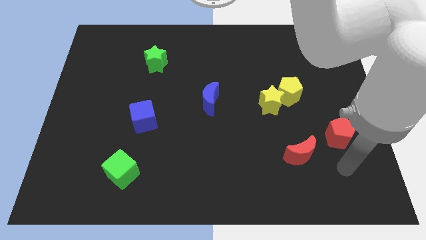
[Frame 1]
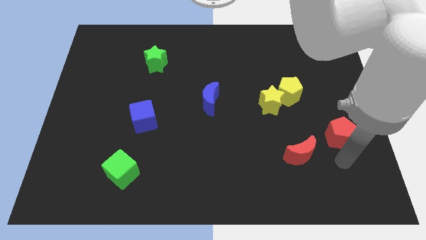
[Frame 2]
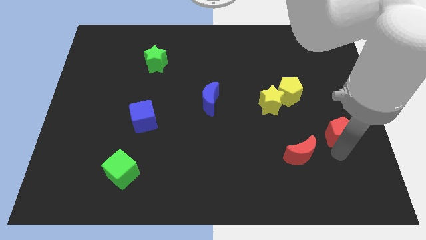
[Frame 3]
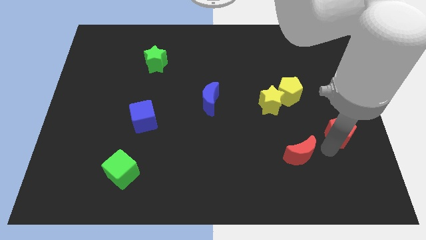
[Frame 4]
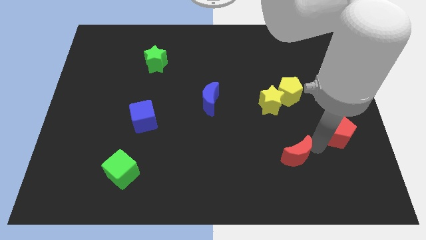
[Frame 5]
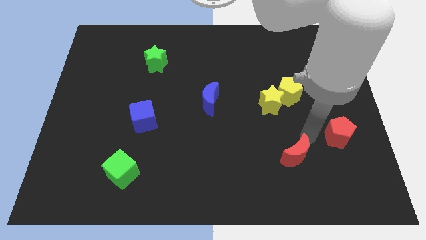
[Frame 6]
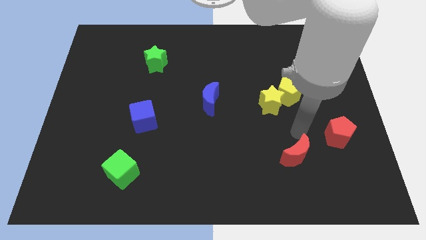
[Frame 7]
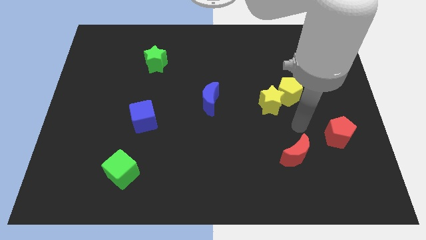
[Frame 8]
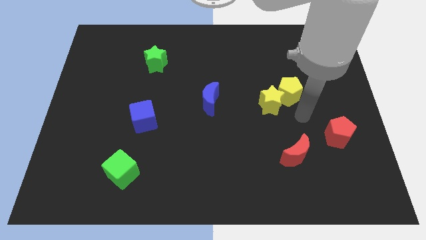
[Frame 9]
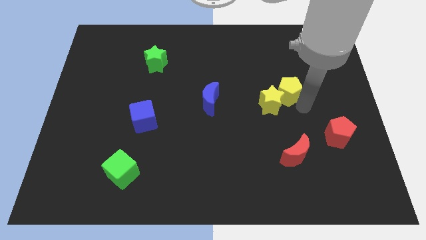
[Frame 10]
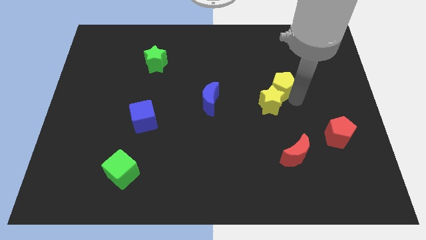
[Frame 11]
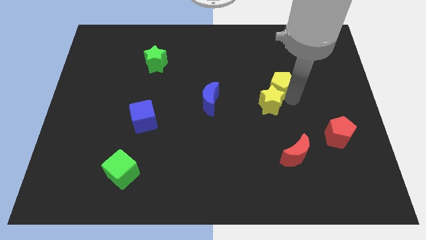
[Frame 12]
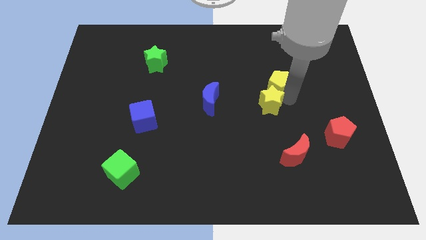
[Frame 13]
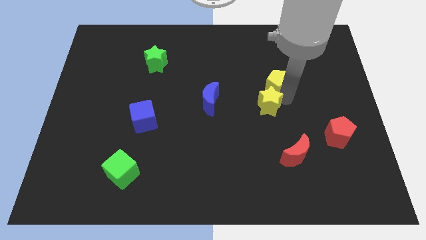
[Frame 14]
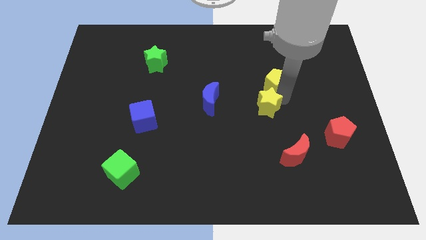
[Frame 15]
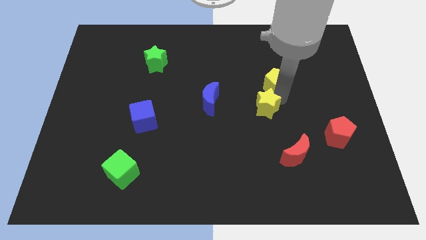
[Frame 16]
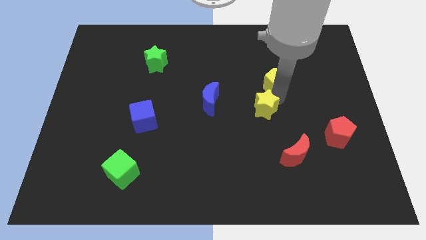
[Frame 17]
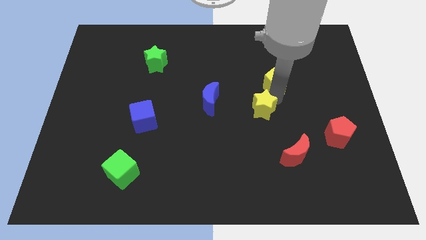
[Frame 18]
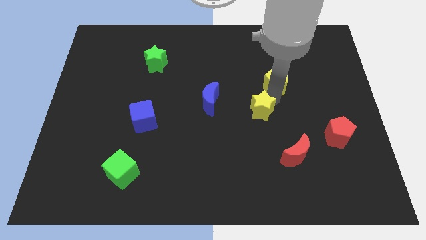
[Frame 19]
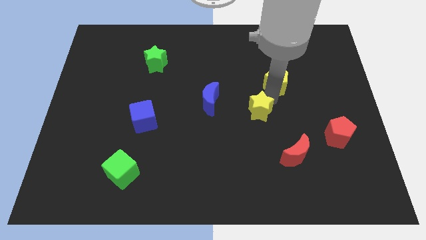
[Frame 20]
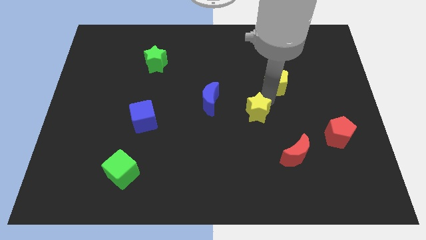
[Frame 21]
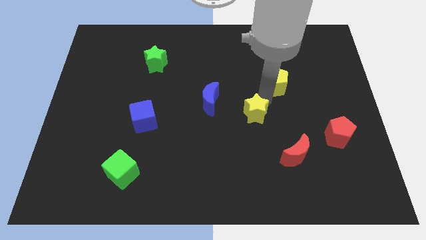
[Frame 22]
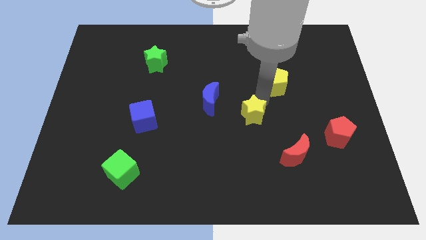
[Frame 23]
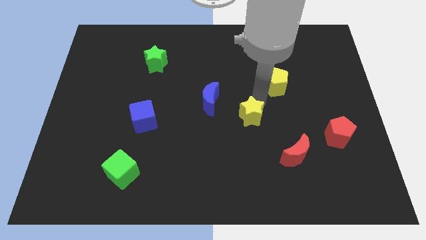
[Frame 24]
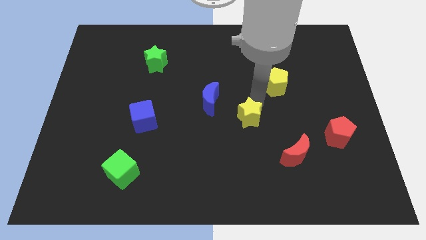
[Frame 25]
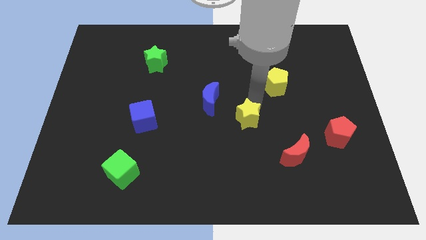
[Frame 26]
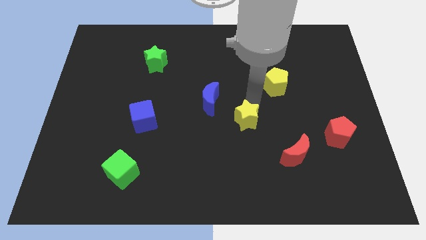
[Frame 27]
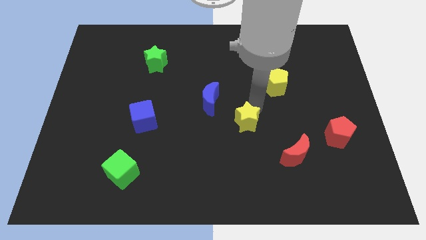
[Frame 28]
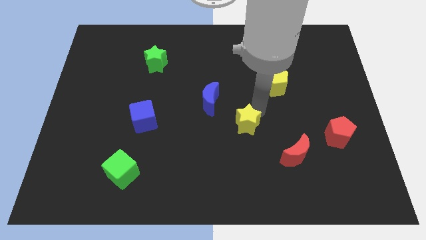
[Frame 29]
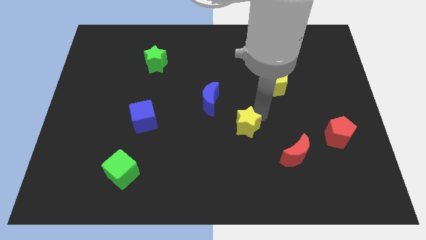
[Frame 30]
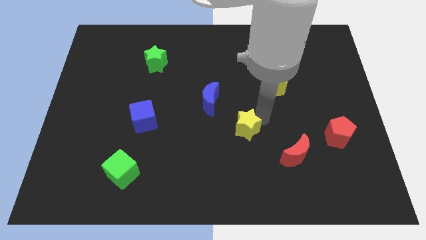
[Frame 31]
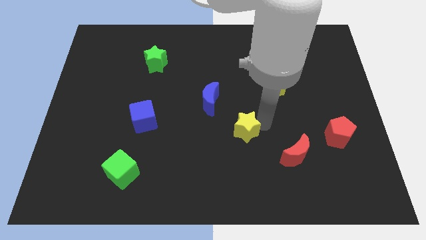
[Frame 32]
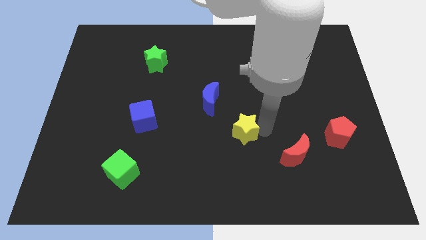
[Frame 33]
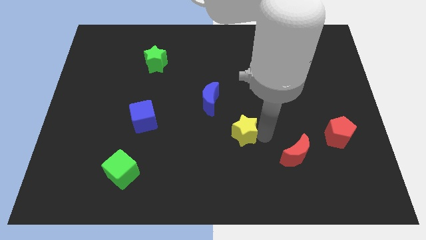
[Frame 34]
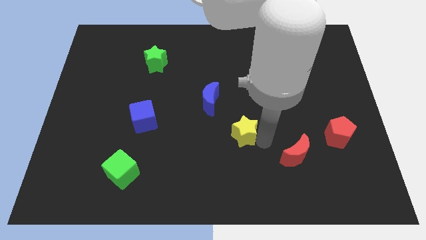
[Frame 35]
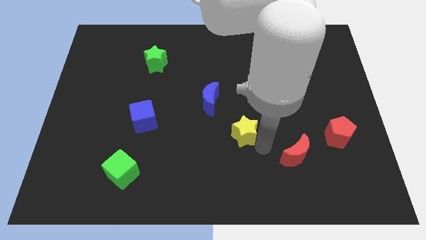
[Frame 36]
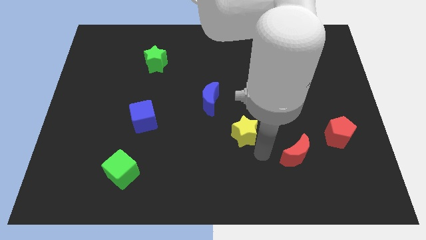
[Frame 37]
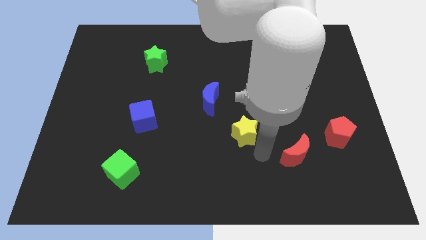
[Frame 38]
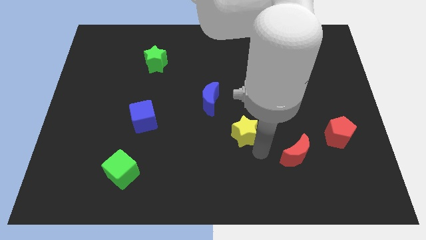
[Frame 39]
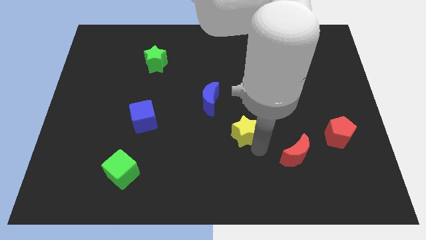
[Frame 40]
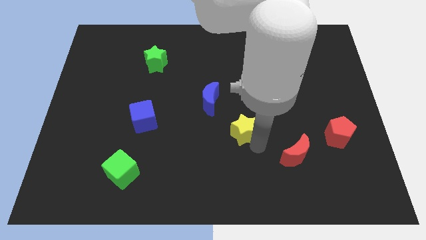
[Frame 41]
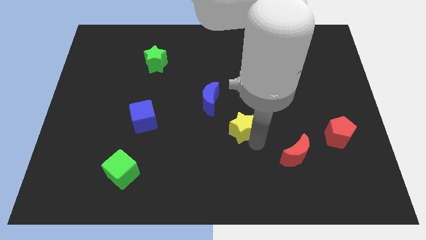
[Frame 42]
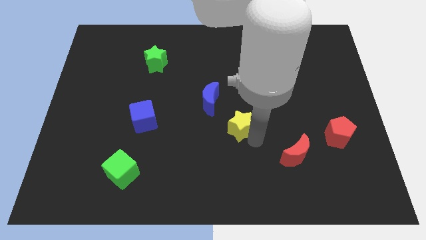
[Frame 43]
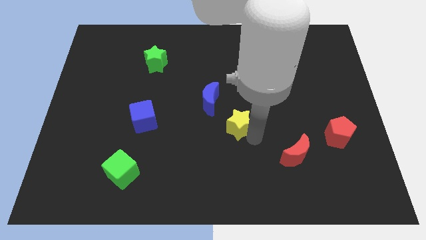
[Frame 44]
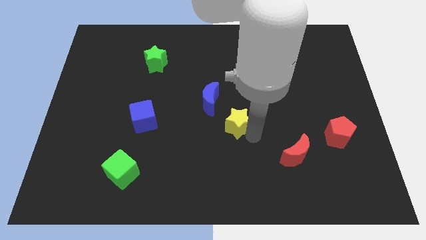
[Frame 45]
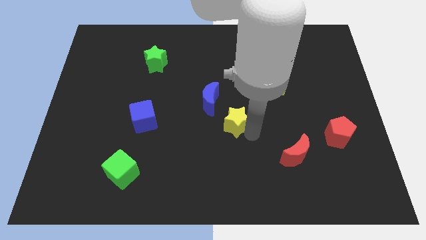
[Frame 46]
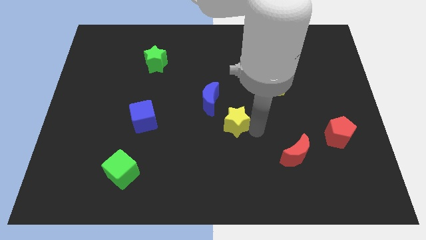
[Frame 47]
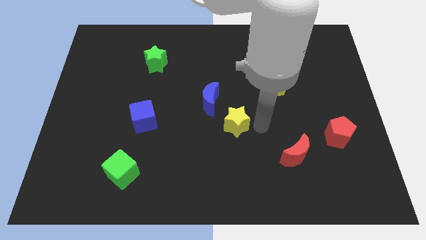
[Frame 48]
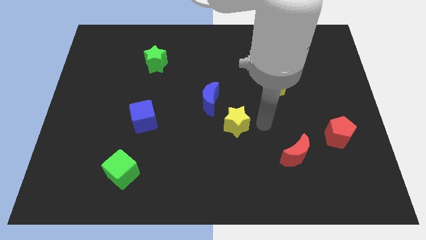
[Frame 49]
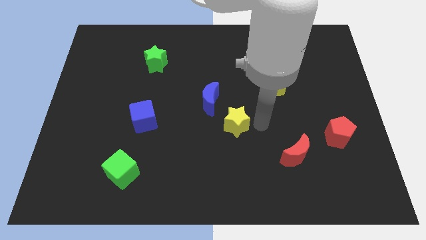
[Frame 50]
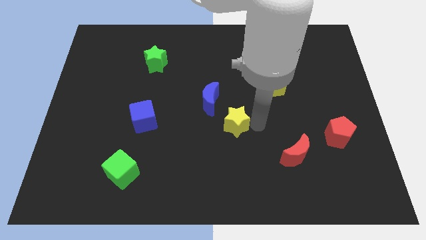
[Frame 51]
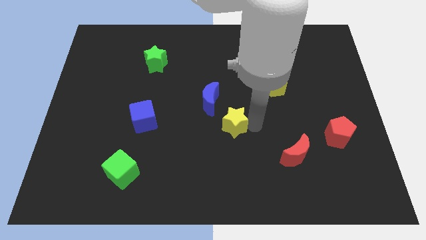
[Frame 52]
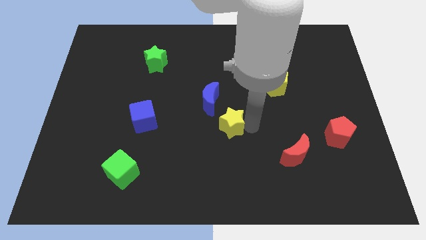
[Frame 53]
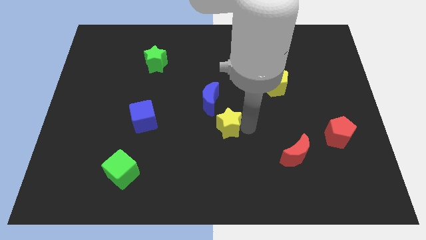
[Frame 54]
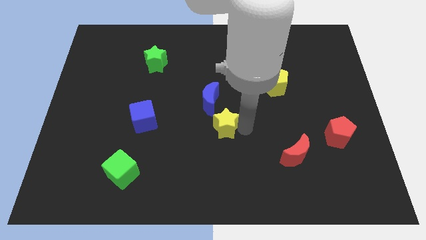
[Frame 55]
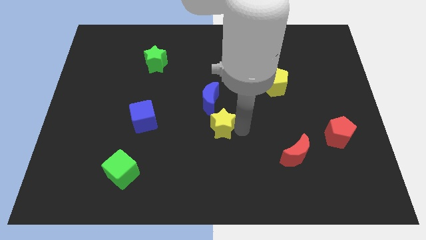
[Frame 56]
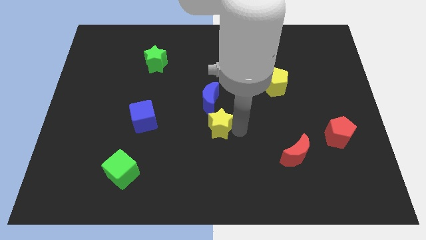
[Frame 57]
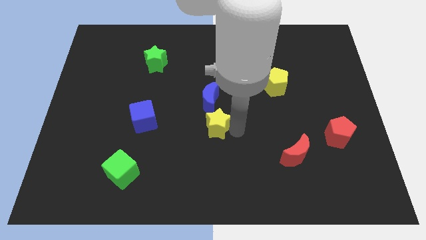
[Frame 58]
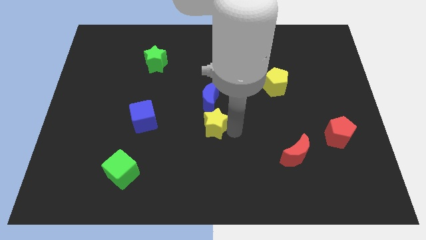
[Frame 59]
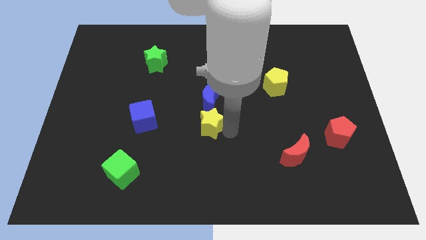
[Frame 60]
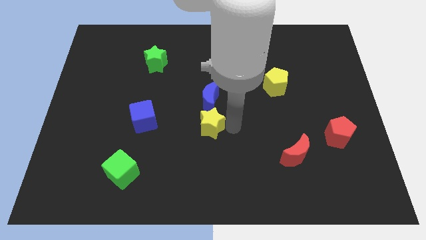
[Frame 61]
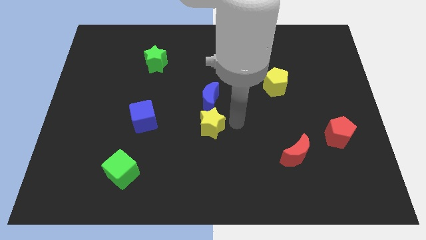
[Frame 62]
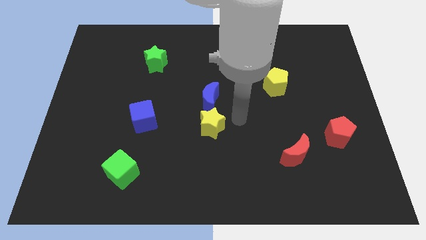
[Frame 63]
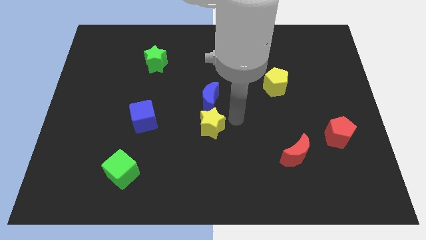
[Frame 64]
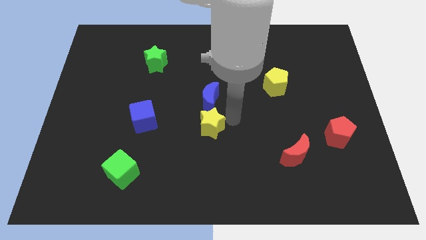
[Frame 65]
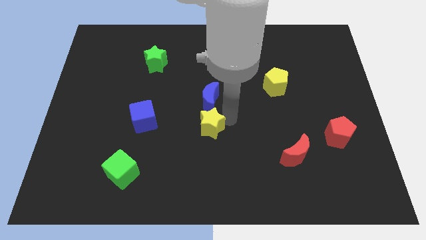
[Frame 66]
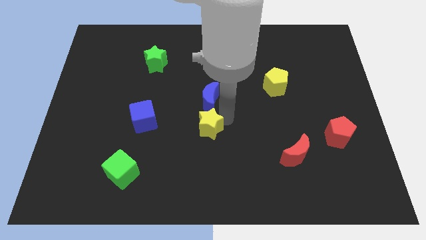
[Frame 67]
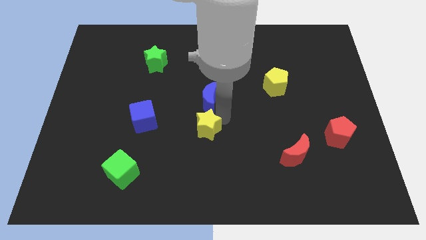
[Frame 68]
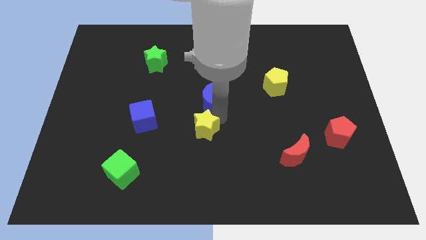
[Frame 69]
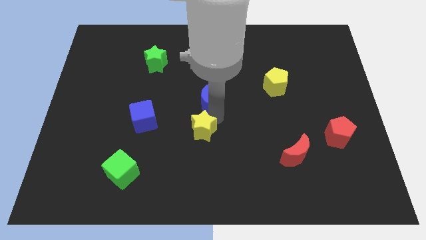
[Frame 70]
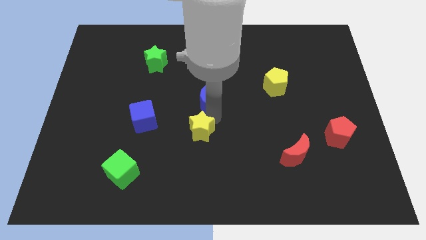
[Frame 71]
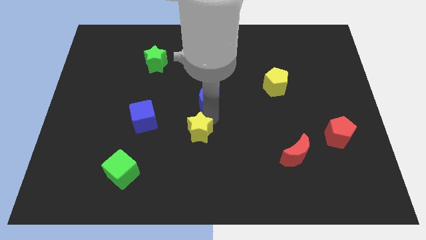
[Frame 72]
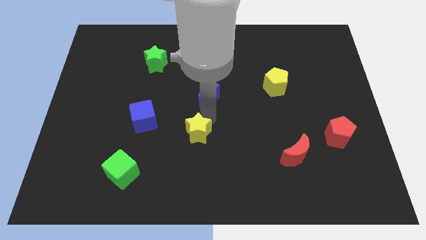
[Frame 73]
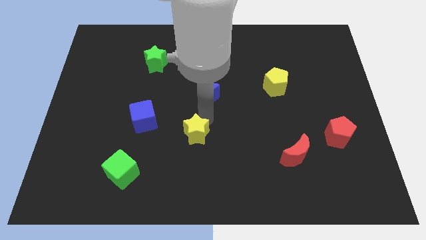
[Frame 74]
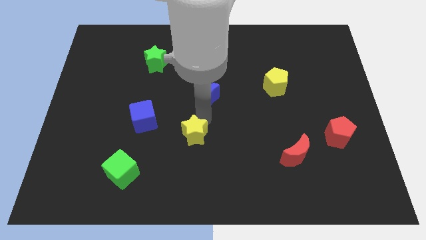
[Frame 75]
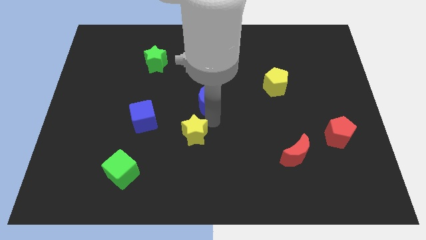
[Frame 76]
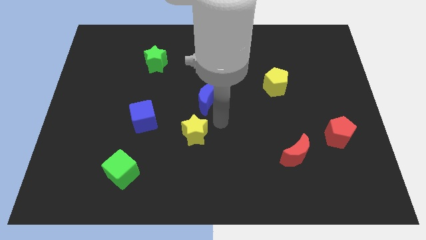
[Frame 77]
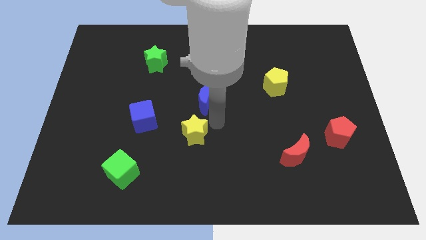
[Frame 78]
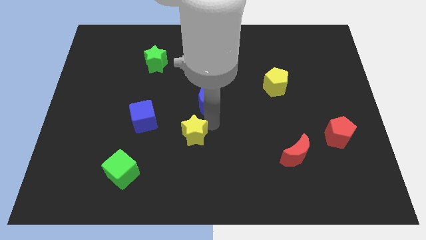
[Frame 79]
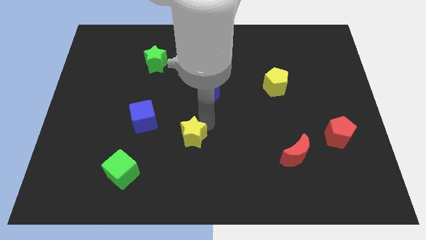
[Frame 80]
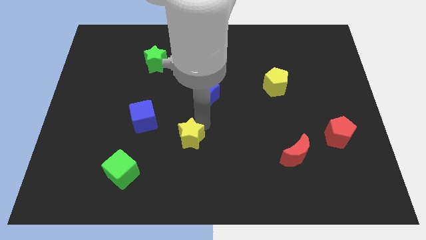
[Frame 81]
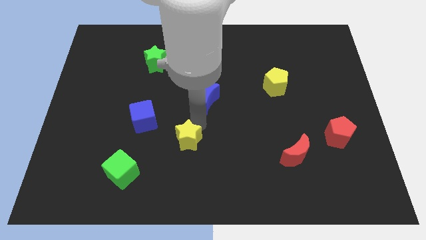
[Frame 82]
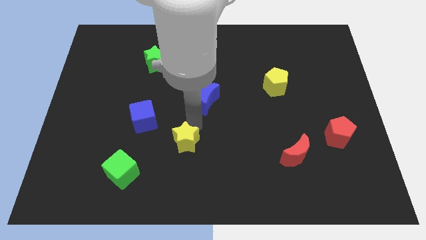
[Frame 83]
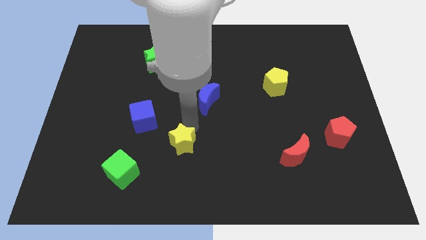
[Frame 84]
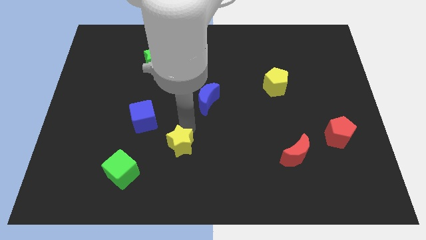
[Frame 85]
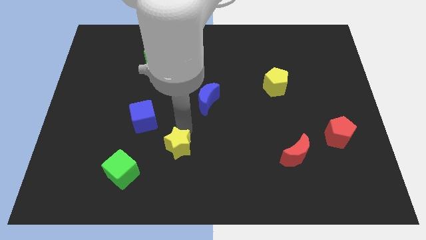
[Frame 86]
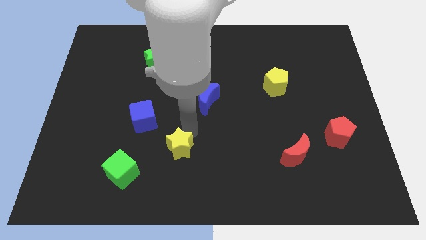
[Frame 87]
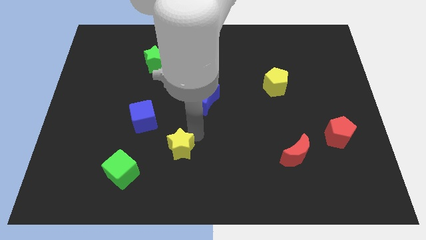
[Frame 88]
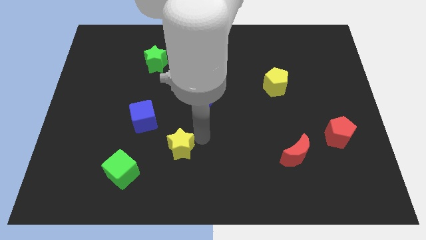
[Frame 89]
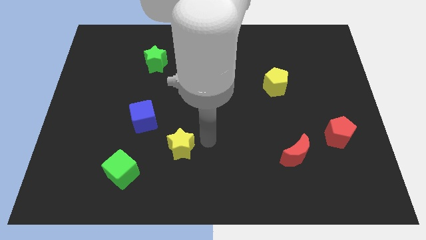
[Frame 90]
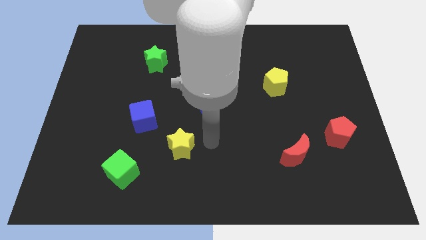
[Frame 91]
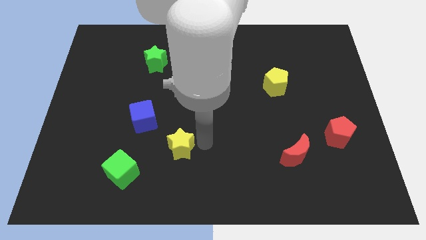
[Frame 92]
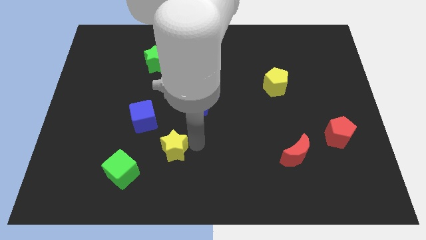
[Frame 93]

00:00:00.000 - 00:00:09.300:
push the yellow star diagonally up and to the right of the green cube
